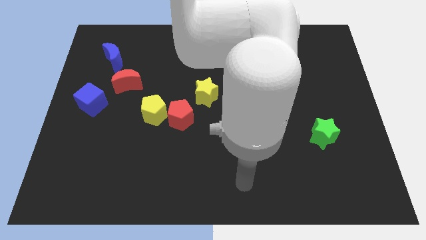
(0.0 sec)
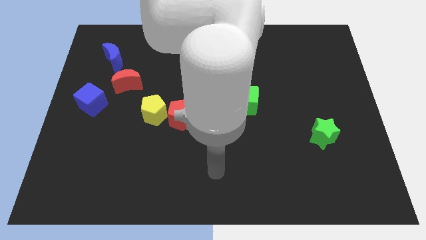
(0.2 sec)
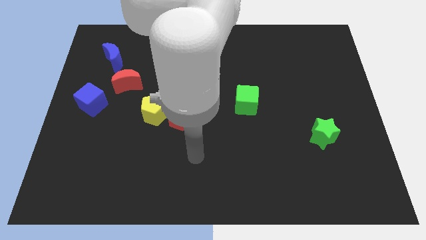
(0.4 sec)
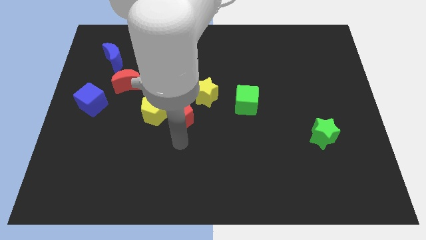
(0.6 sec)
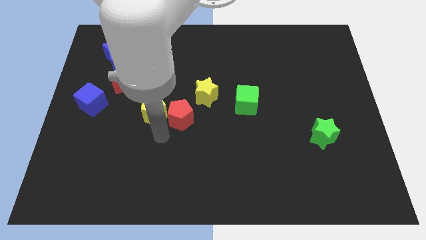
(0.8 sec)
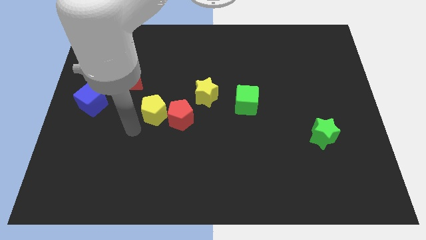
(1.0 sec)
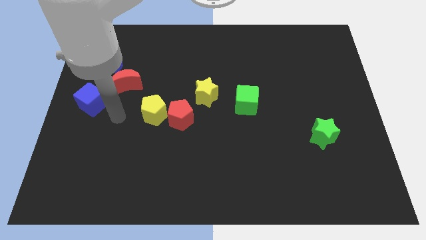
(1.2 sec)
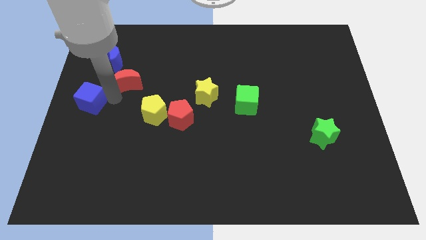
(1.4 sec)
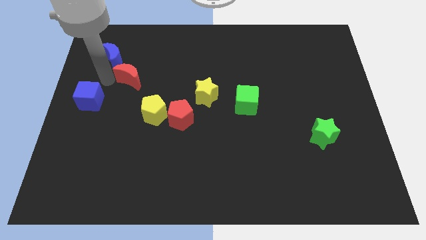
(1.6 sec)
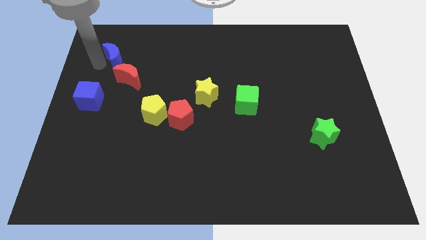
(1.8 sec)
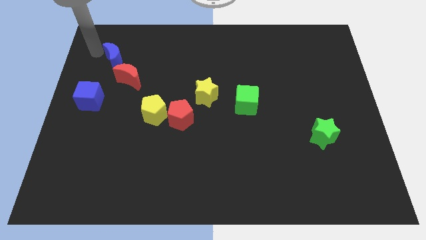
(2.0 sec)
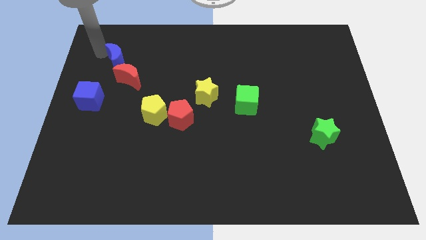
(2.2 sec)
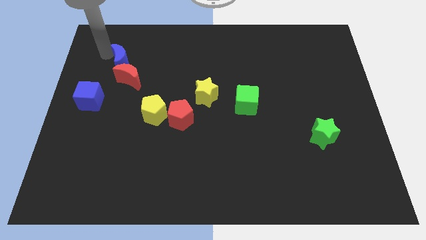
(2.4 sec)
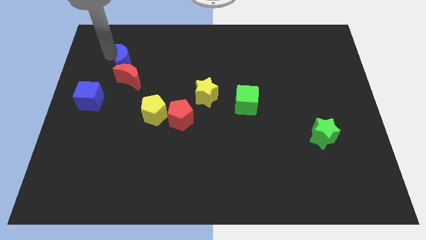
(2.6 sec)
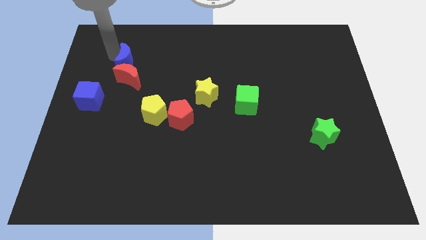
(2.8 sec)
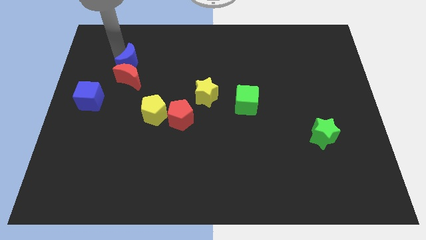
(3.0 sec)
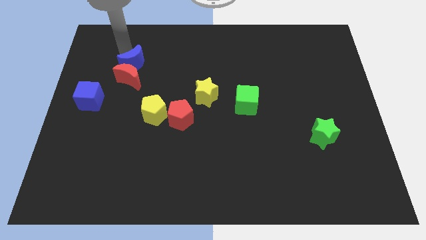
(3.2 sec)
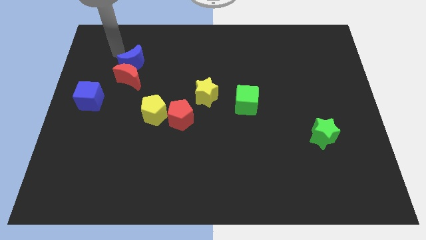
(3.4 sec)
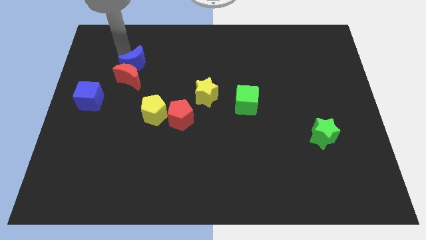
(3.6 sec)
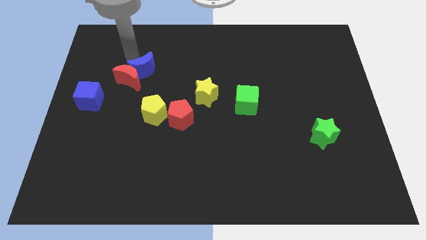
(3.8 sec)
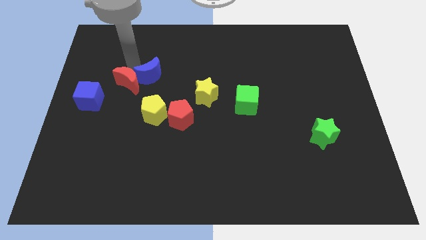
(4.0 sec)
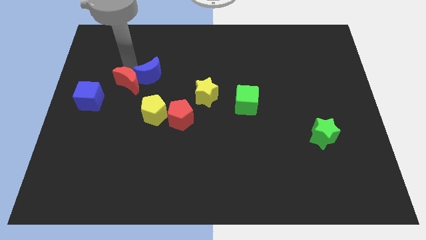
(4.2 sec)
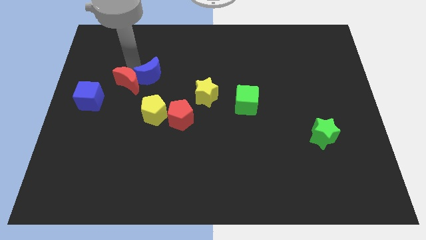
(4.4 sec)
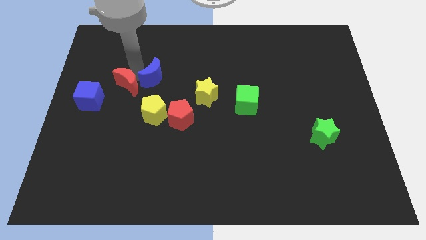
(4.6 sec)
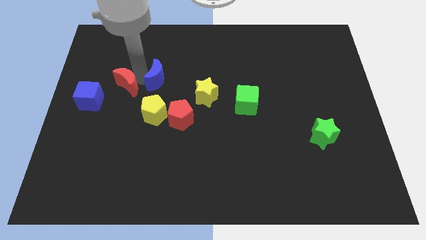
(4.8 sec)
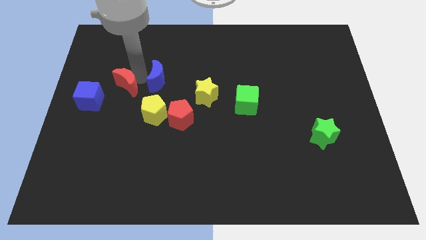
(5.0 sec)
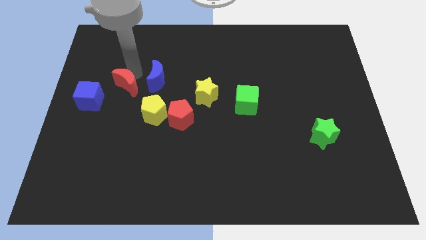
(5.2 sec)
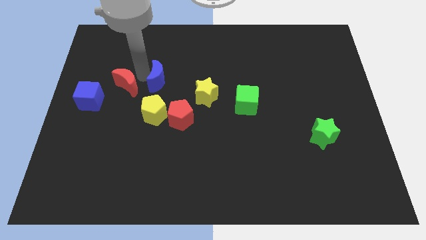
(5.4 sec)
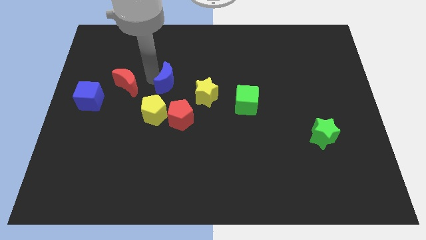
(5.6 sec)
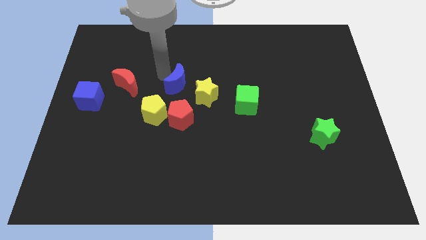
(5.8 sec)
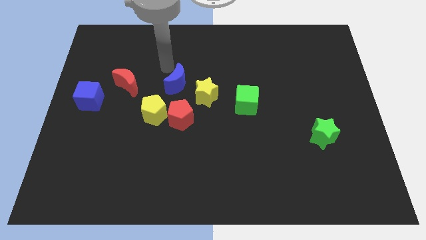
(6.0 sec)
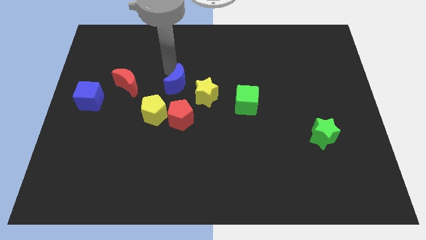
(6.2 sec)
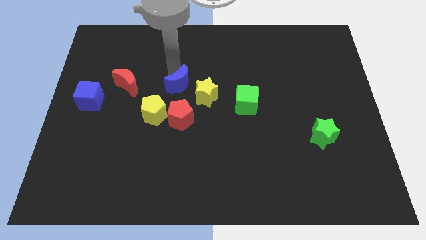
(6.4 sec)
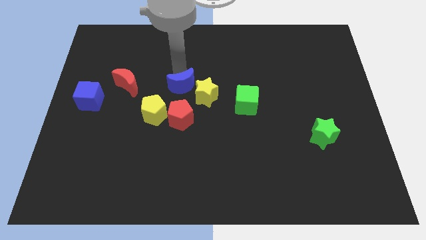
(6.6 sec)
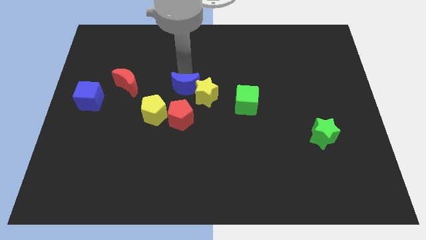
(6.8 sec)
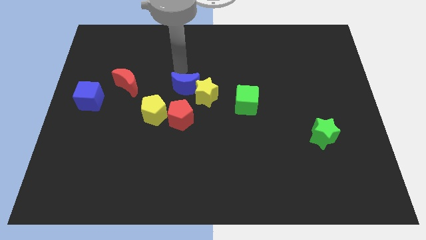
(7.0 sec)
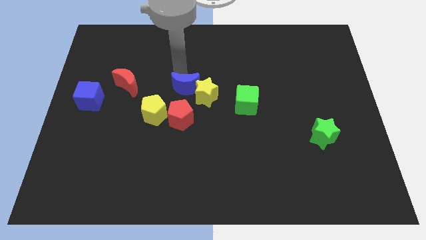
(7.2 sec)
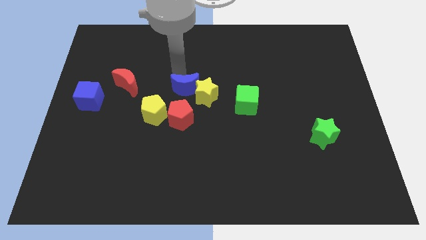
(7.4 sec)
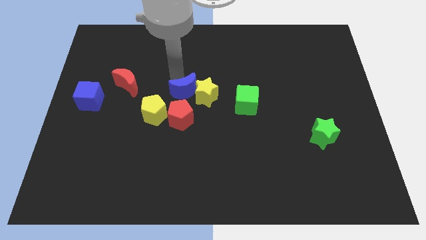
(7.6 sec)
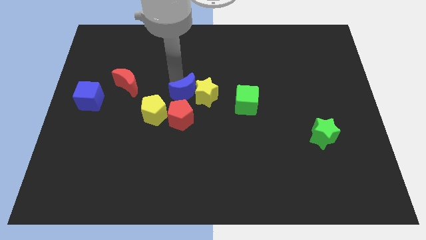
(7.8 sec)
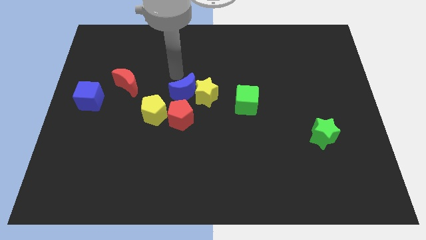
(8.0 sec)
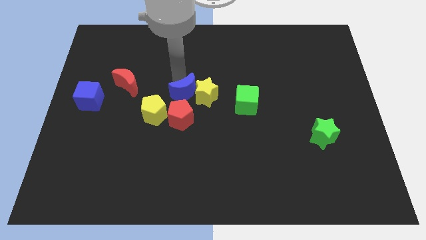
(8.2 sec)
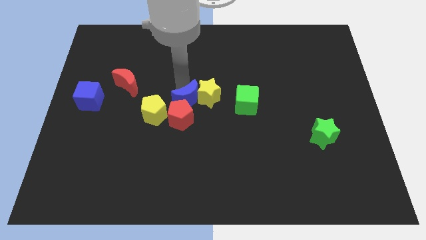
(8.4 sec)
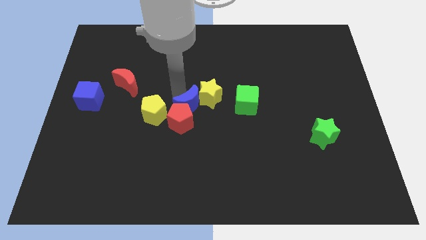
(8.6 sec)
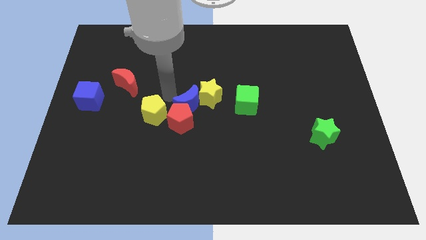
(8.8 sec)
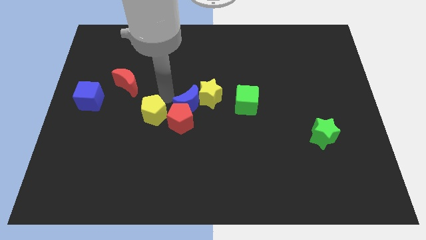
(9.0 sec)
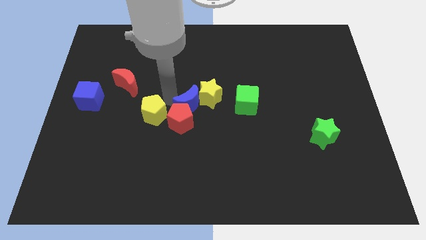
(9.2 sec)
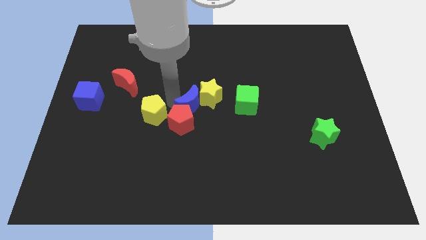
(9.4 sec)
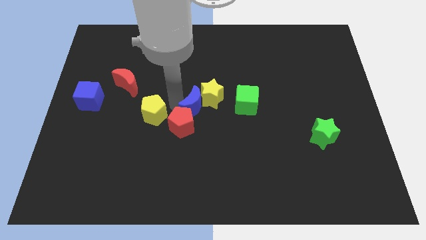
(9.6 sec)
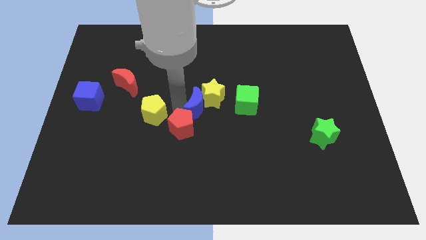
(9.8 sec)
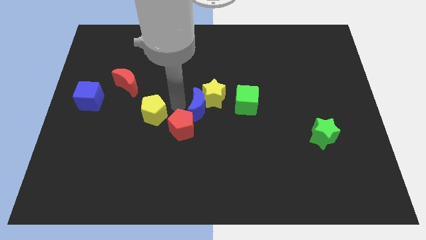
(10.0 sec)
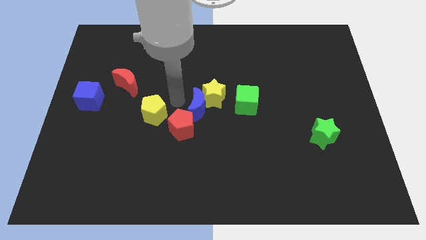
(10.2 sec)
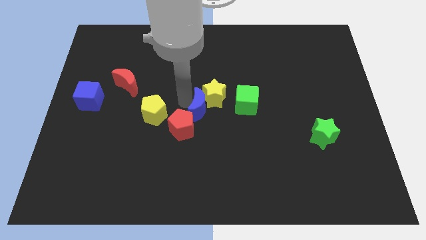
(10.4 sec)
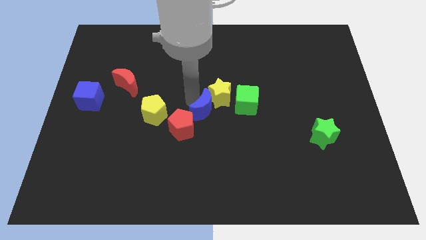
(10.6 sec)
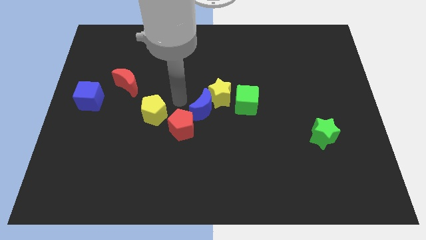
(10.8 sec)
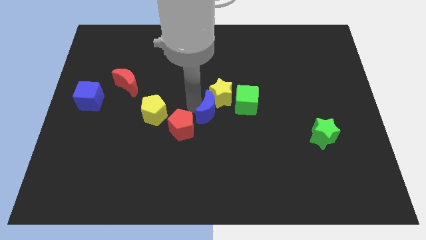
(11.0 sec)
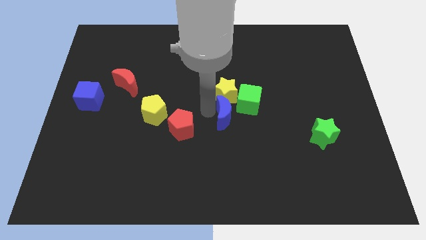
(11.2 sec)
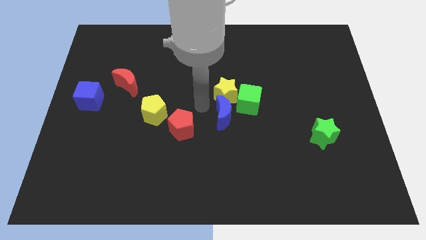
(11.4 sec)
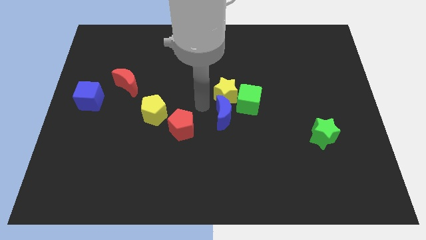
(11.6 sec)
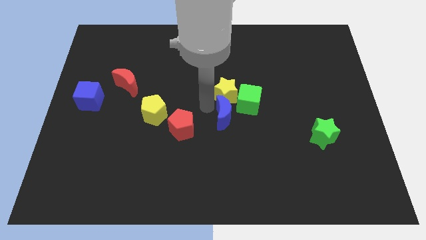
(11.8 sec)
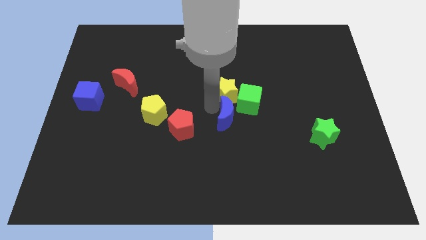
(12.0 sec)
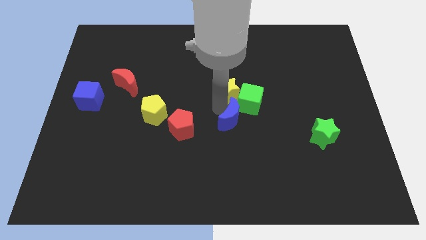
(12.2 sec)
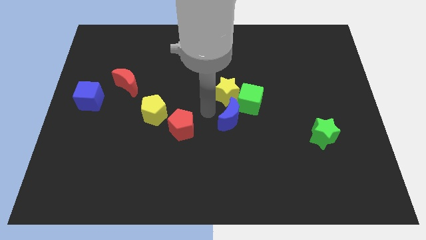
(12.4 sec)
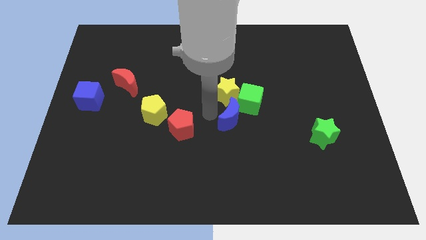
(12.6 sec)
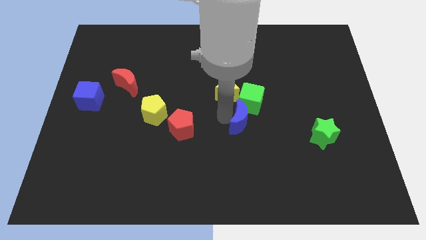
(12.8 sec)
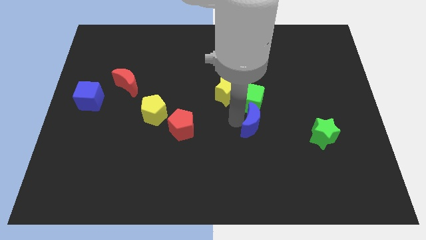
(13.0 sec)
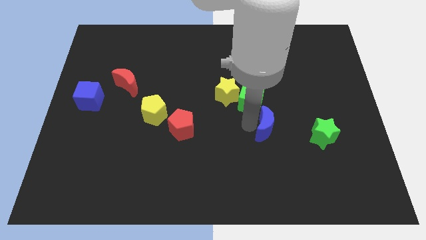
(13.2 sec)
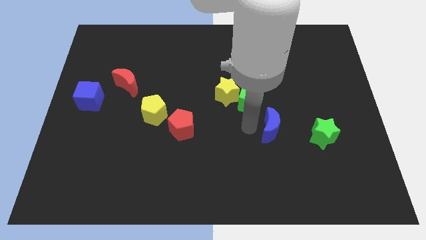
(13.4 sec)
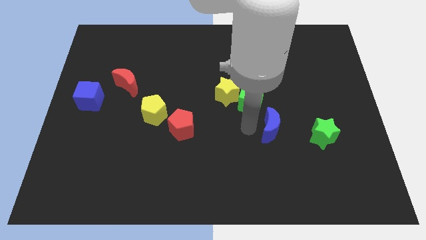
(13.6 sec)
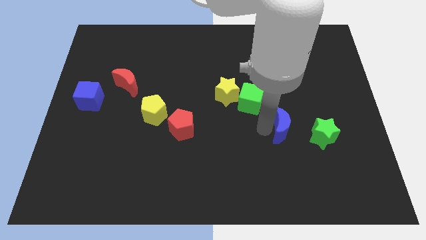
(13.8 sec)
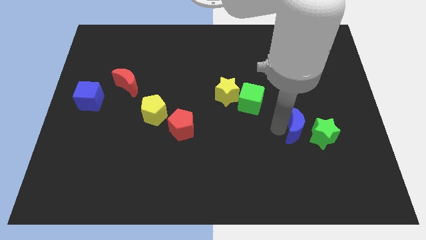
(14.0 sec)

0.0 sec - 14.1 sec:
put the blue moon towards the green star
